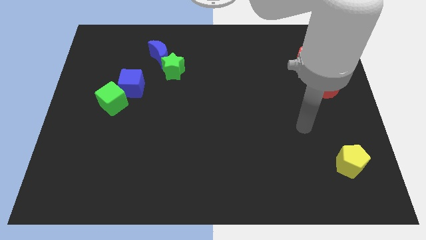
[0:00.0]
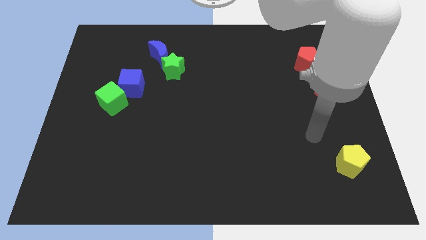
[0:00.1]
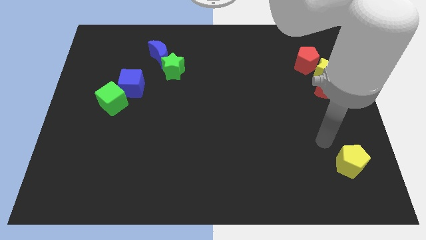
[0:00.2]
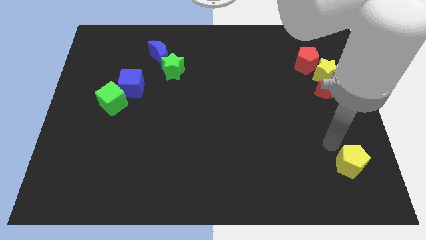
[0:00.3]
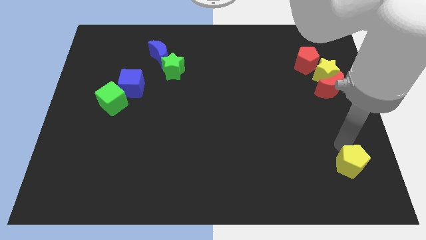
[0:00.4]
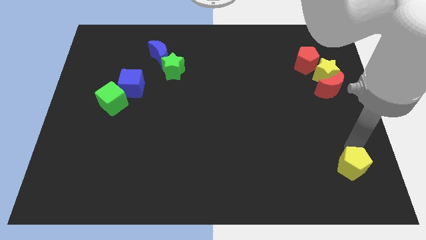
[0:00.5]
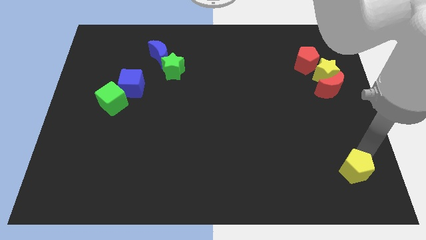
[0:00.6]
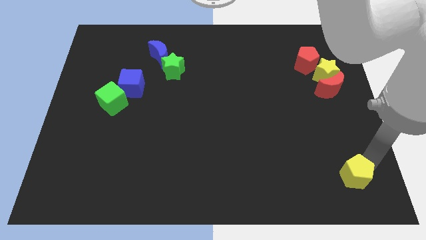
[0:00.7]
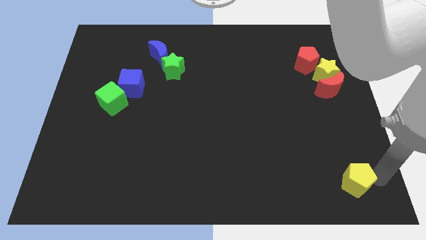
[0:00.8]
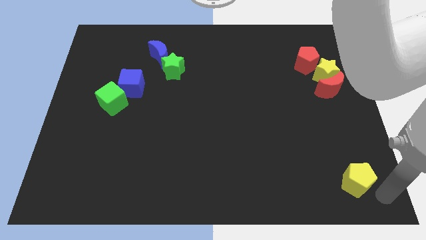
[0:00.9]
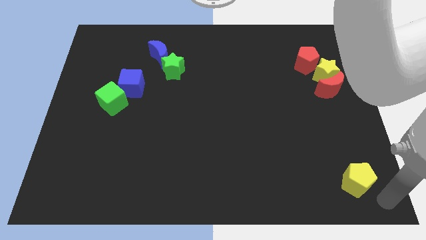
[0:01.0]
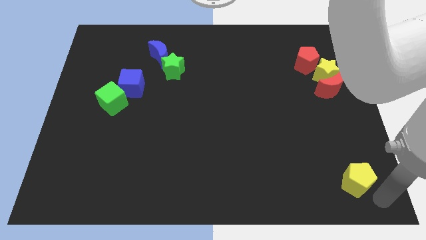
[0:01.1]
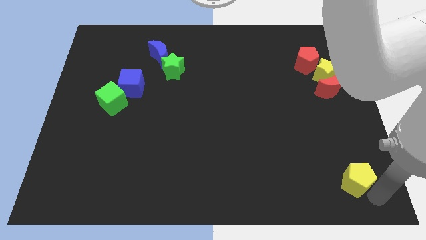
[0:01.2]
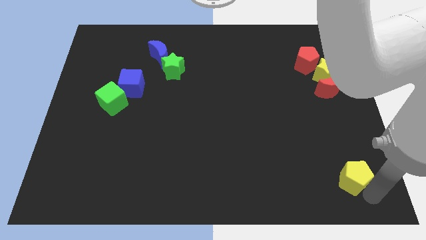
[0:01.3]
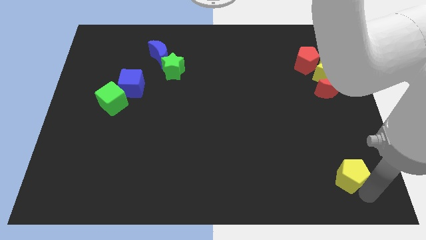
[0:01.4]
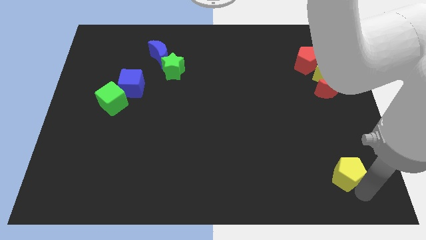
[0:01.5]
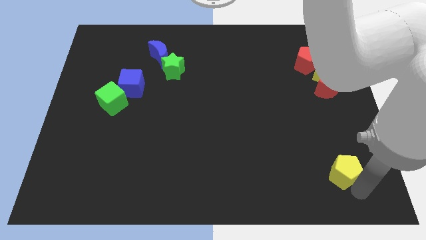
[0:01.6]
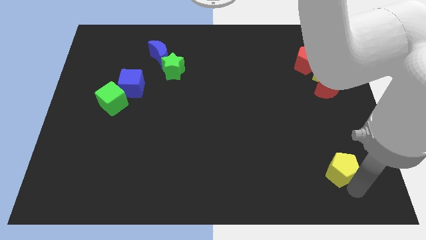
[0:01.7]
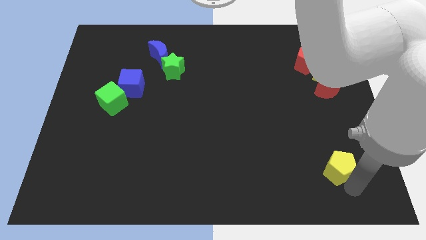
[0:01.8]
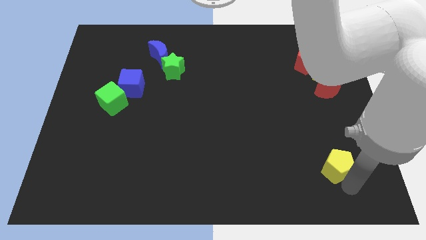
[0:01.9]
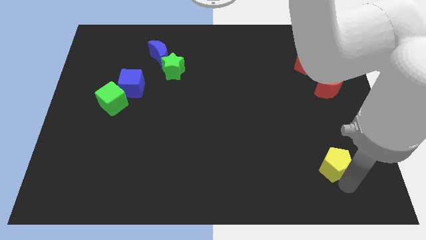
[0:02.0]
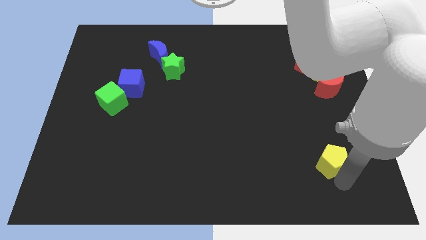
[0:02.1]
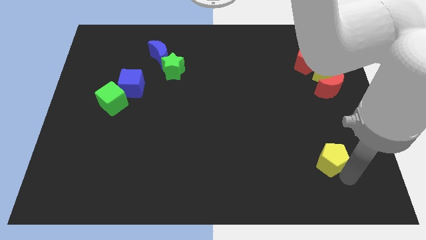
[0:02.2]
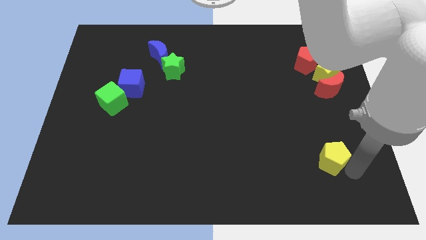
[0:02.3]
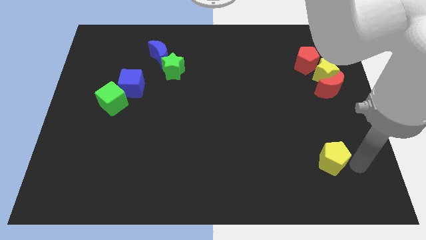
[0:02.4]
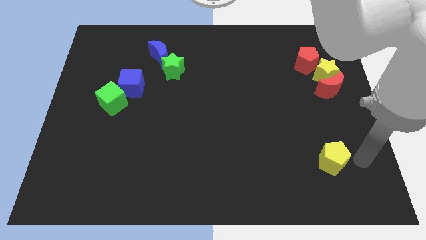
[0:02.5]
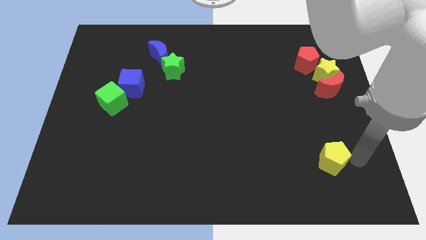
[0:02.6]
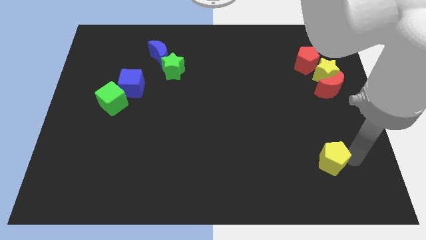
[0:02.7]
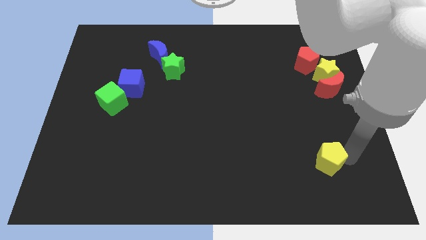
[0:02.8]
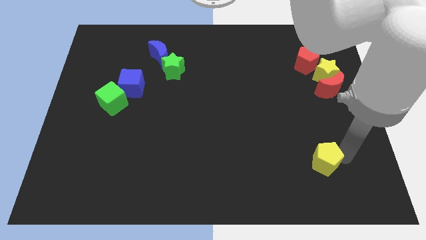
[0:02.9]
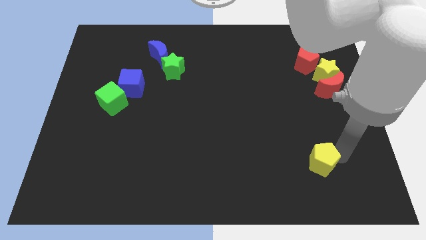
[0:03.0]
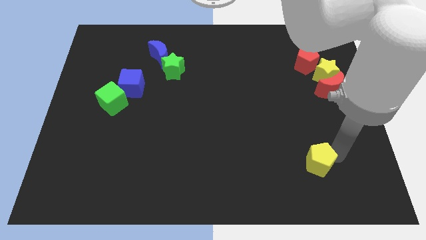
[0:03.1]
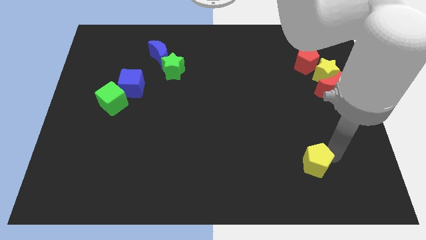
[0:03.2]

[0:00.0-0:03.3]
slide the yellow pentagon somewhat to the left

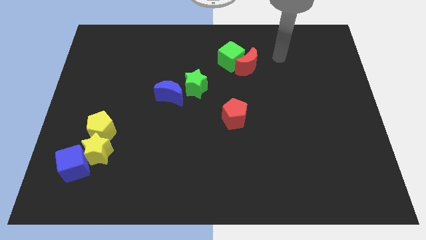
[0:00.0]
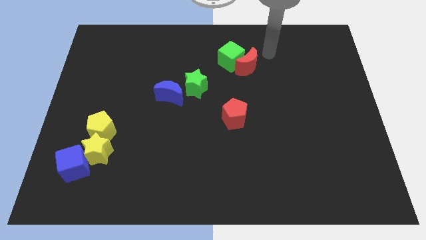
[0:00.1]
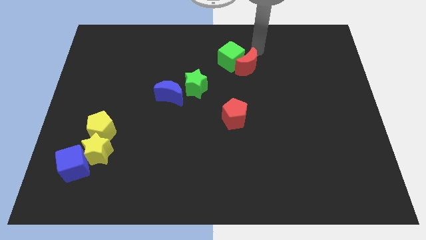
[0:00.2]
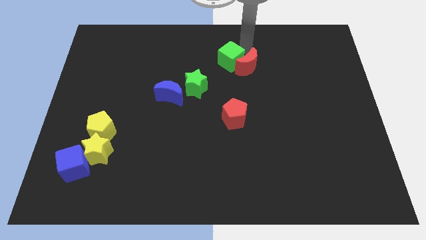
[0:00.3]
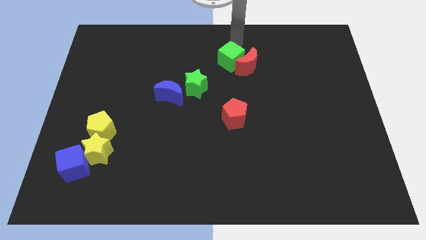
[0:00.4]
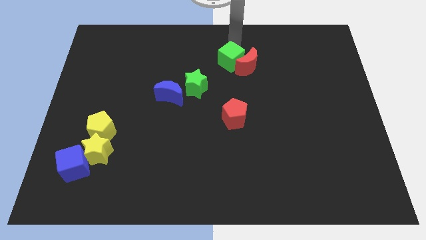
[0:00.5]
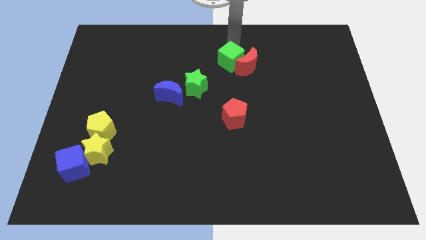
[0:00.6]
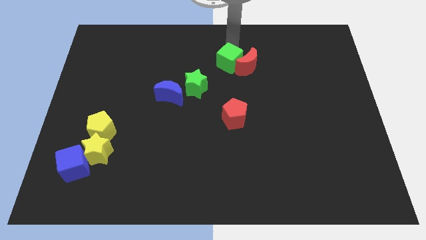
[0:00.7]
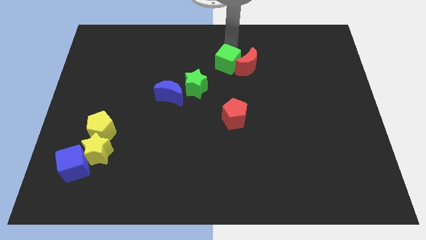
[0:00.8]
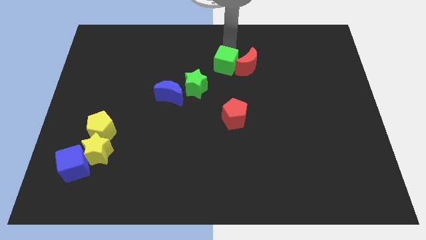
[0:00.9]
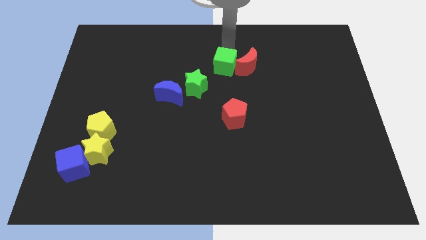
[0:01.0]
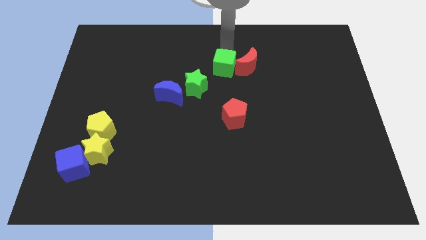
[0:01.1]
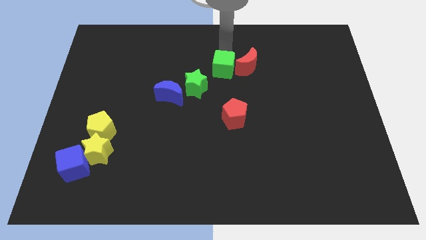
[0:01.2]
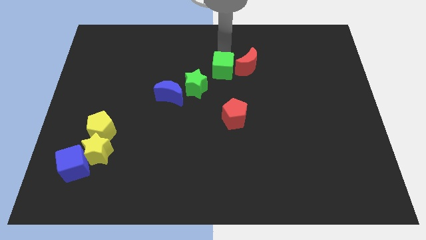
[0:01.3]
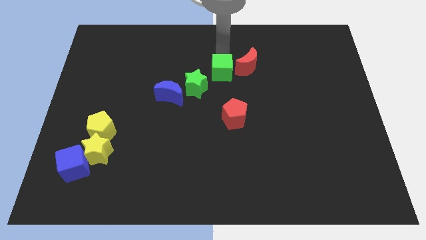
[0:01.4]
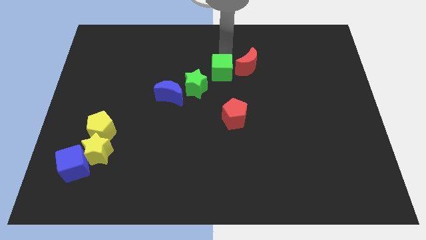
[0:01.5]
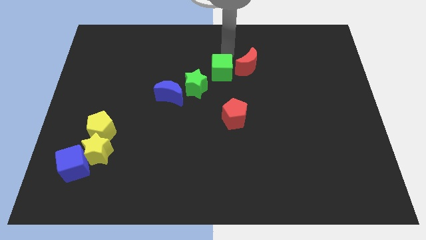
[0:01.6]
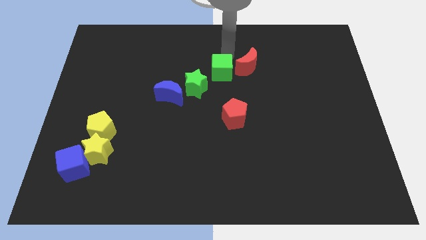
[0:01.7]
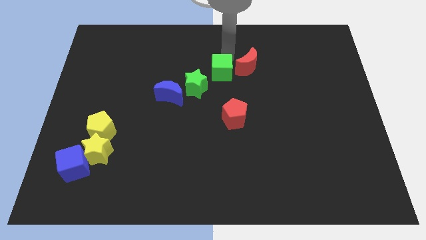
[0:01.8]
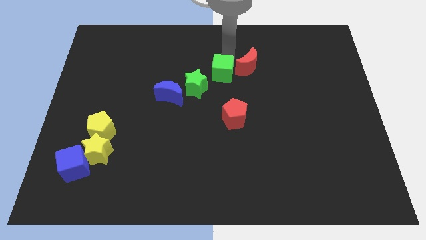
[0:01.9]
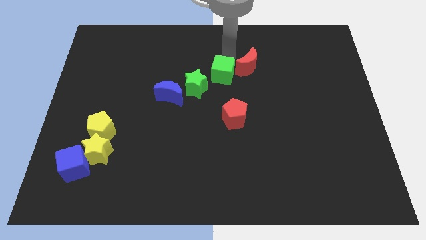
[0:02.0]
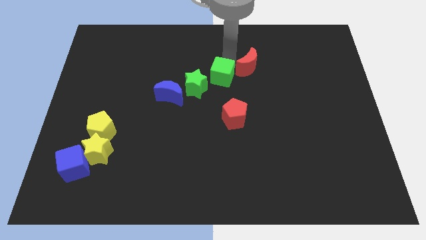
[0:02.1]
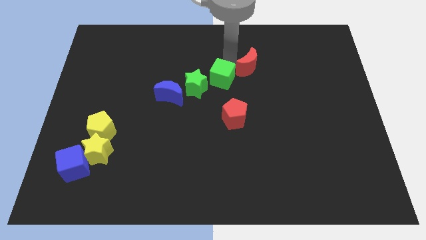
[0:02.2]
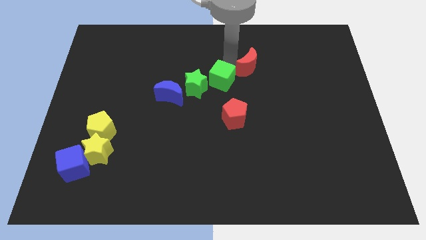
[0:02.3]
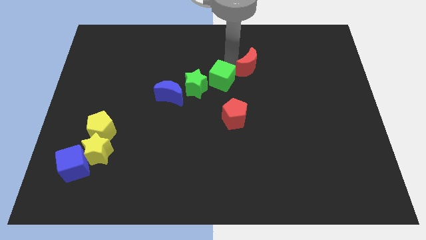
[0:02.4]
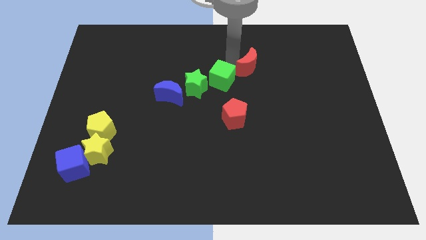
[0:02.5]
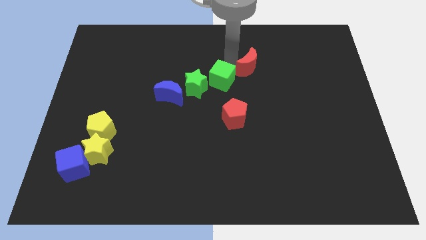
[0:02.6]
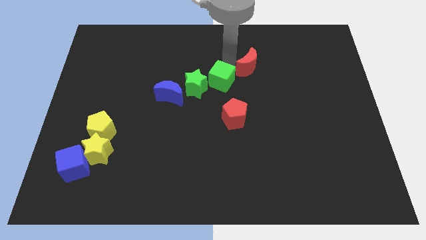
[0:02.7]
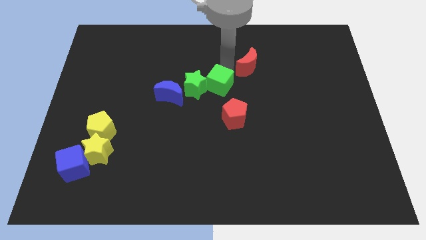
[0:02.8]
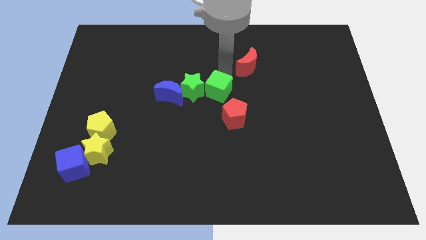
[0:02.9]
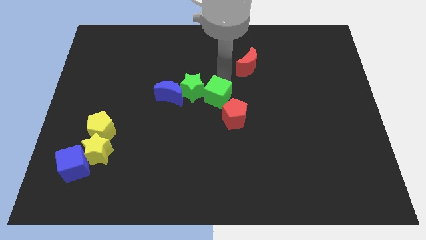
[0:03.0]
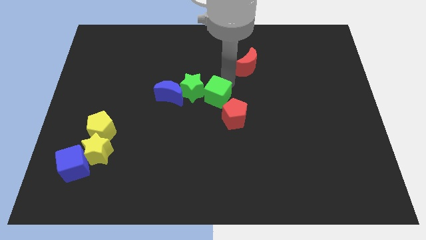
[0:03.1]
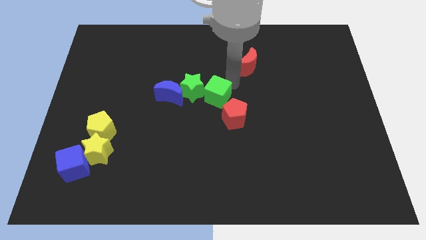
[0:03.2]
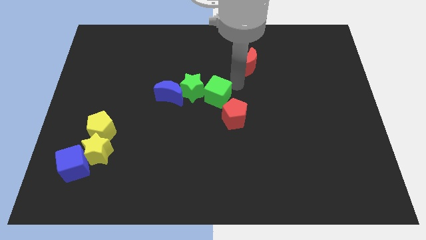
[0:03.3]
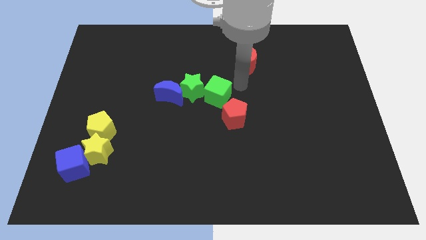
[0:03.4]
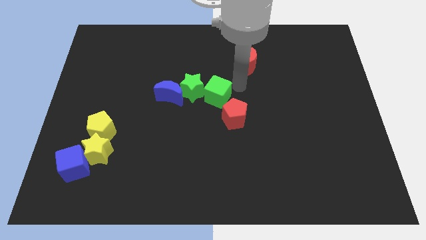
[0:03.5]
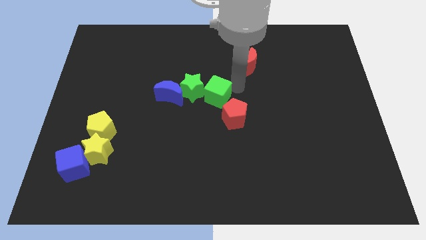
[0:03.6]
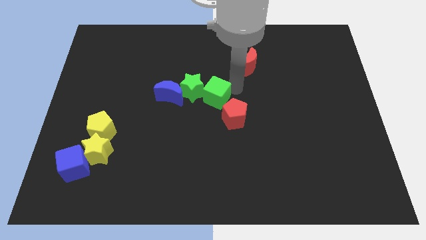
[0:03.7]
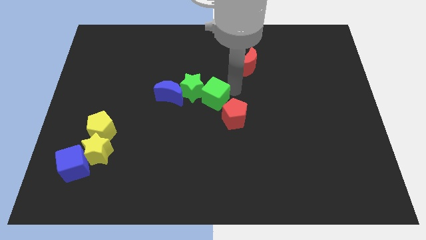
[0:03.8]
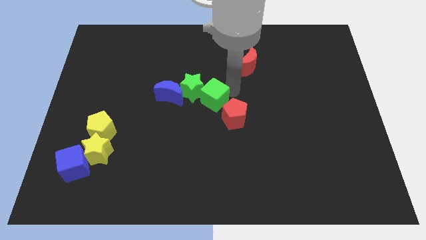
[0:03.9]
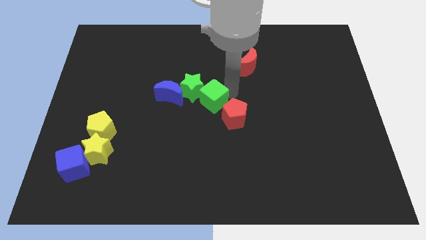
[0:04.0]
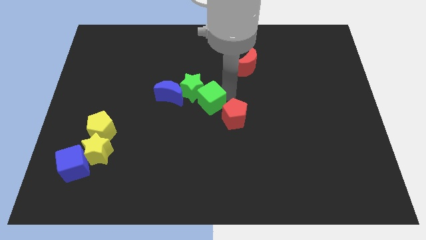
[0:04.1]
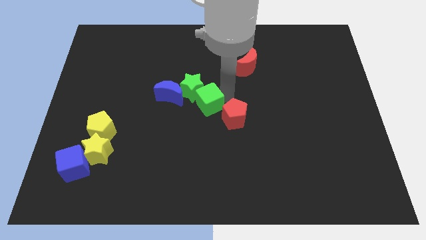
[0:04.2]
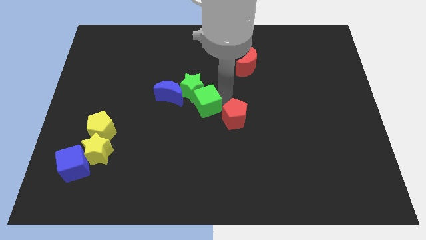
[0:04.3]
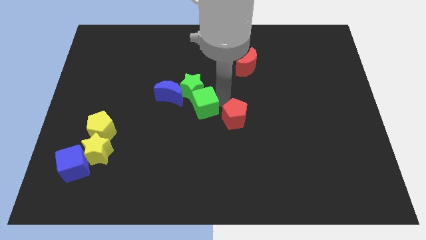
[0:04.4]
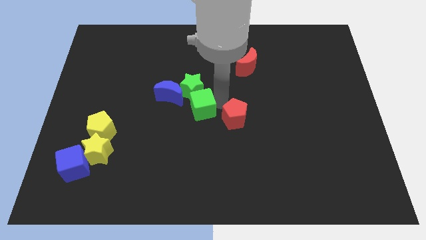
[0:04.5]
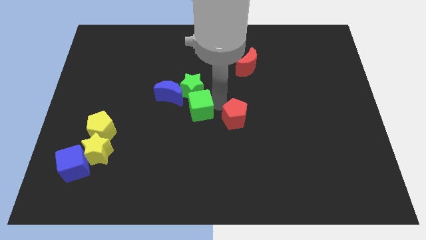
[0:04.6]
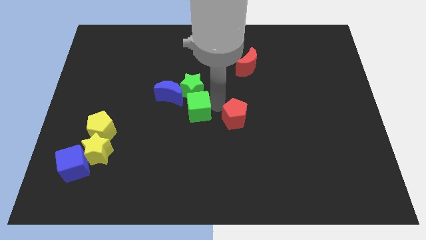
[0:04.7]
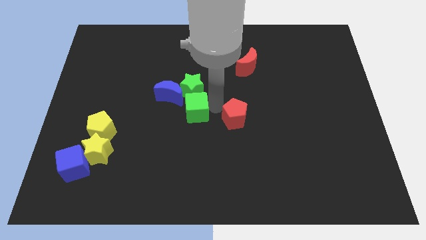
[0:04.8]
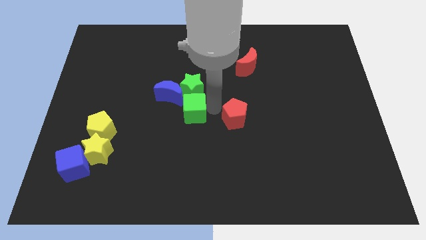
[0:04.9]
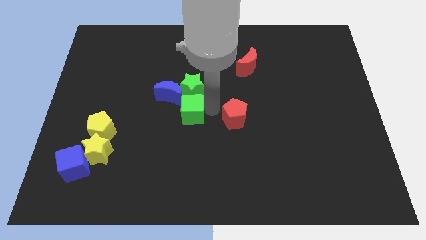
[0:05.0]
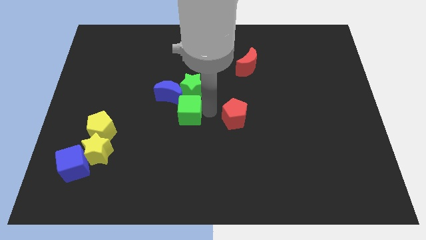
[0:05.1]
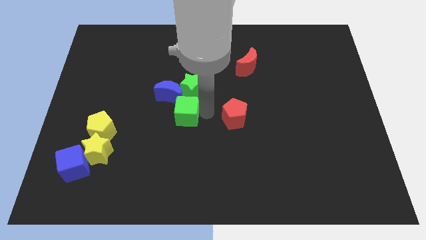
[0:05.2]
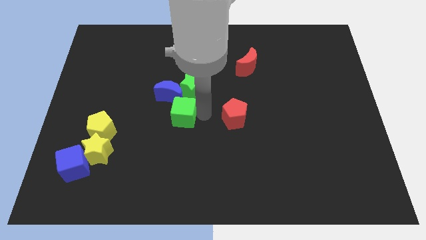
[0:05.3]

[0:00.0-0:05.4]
move the green cube down and to the left diagonally
